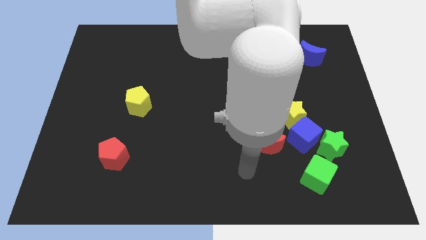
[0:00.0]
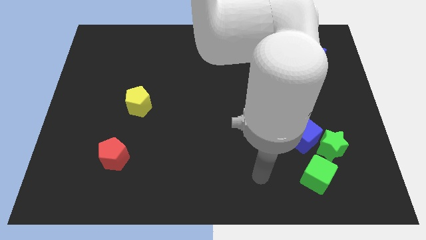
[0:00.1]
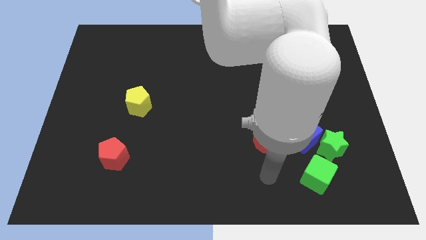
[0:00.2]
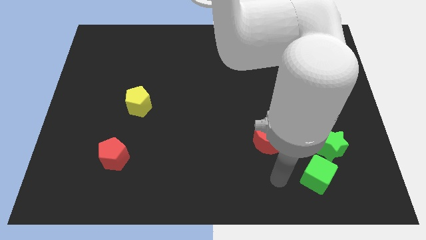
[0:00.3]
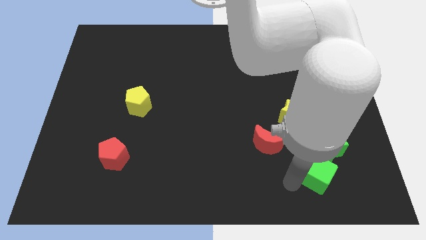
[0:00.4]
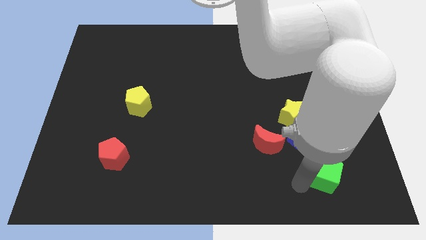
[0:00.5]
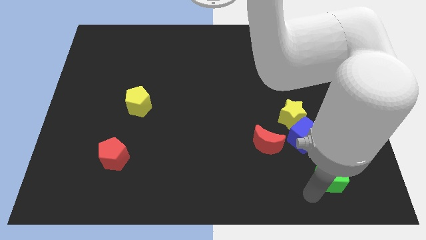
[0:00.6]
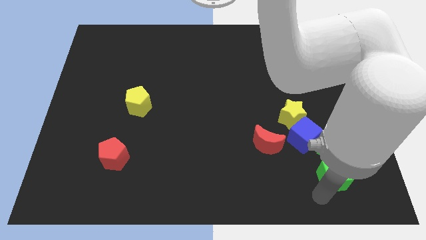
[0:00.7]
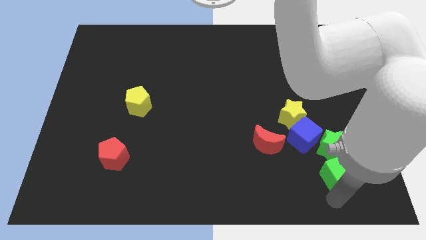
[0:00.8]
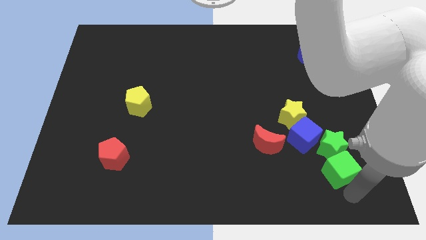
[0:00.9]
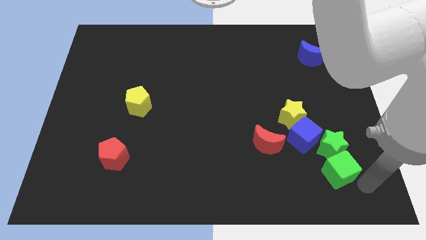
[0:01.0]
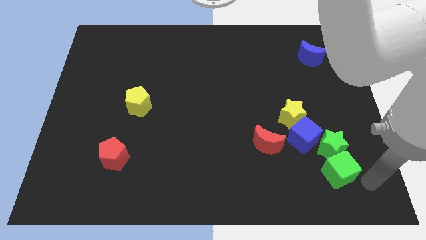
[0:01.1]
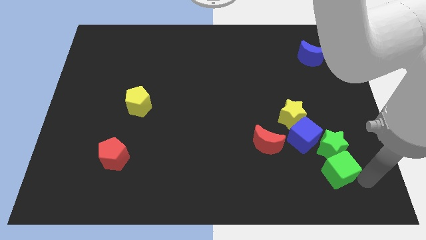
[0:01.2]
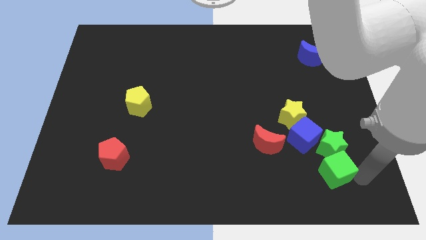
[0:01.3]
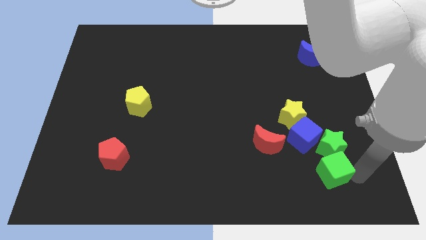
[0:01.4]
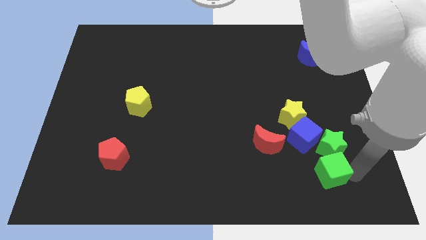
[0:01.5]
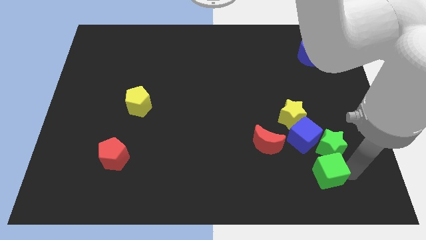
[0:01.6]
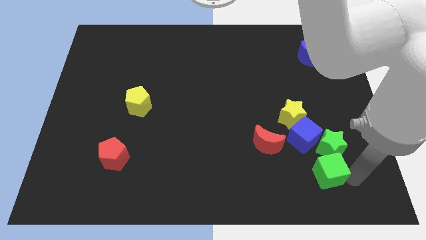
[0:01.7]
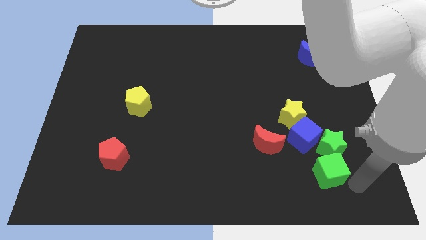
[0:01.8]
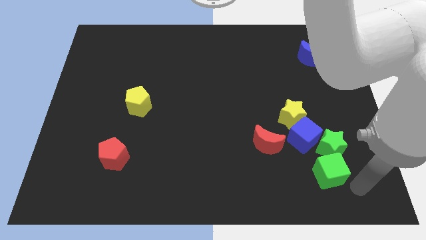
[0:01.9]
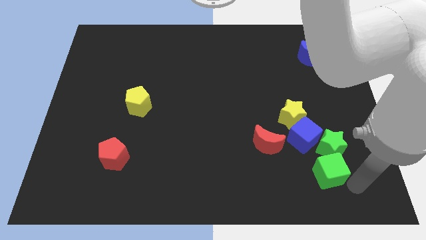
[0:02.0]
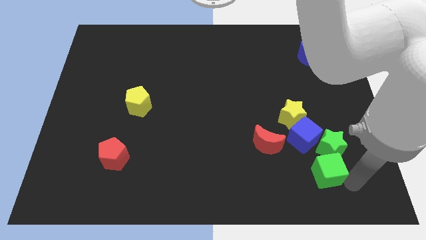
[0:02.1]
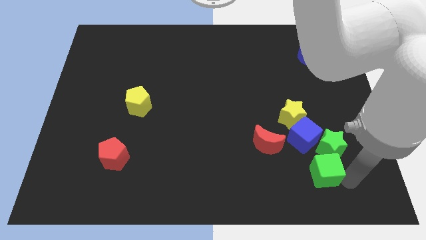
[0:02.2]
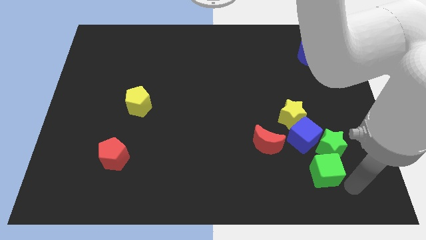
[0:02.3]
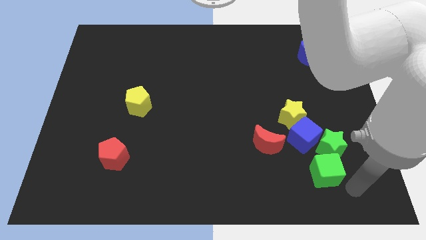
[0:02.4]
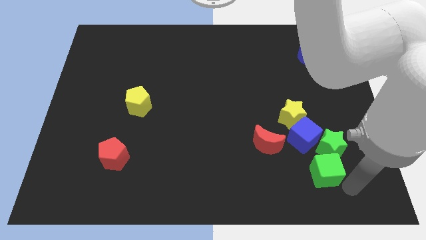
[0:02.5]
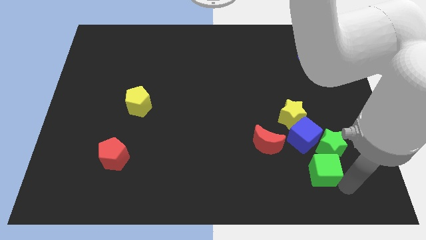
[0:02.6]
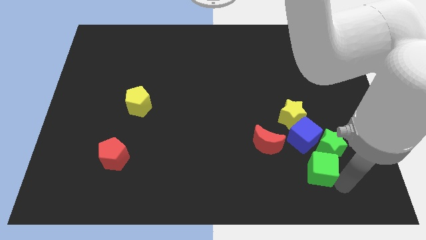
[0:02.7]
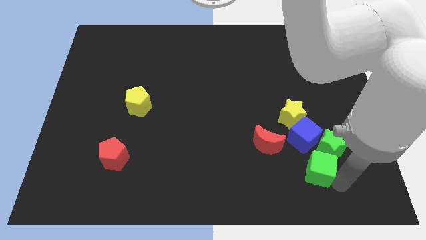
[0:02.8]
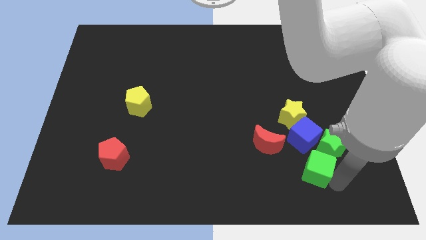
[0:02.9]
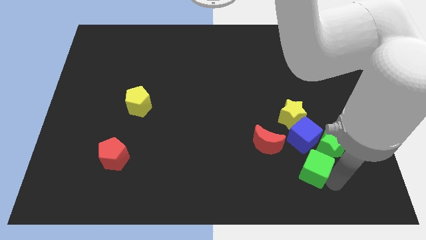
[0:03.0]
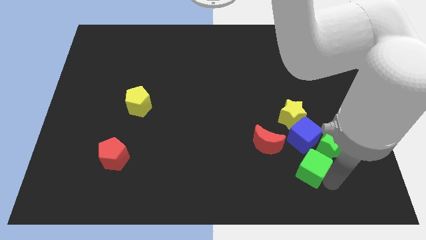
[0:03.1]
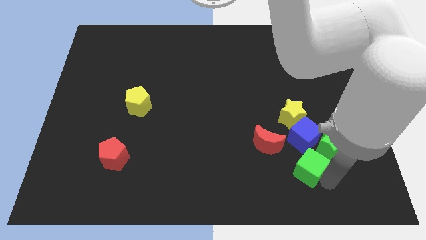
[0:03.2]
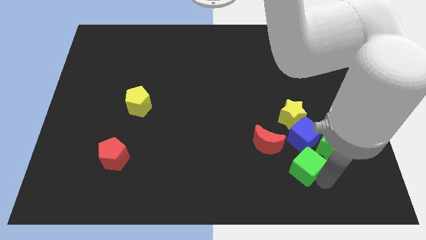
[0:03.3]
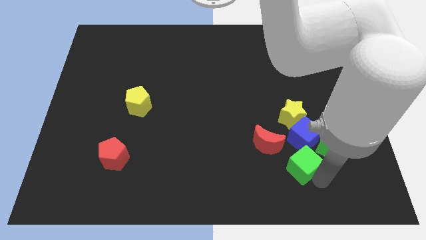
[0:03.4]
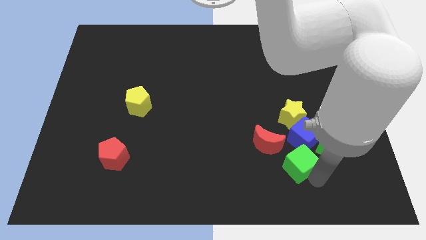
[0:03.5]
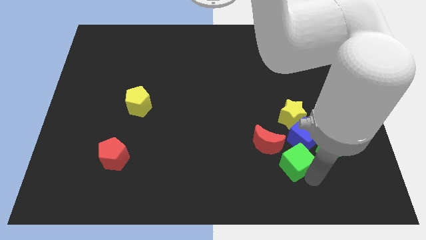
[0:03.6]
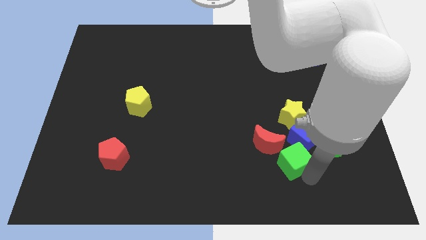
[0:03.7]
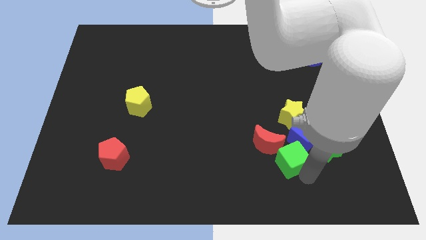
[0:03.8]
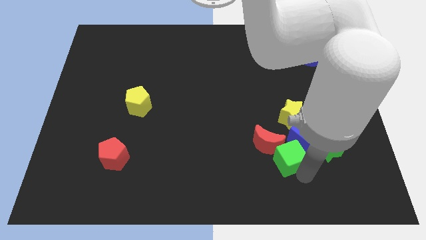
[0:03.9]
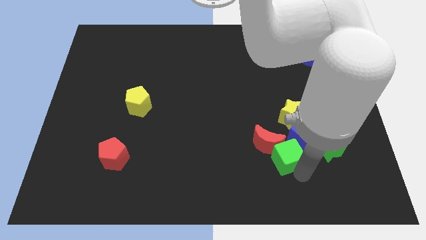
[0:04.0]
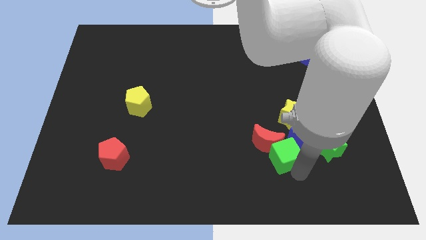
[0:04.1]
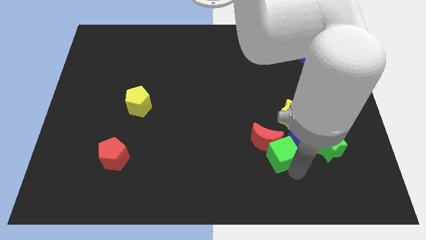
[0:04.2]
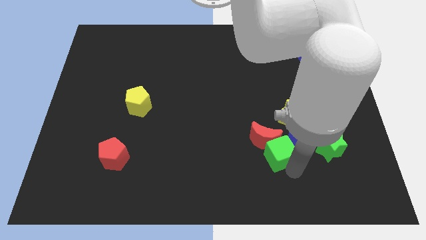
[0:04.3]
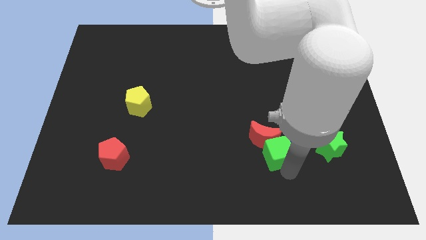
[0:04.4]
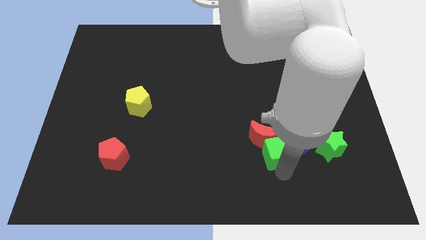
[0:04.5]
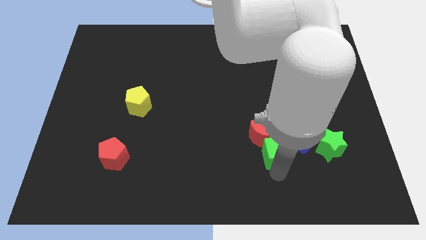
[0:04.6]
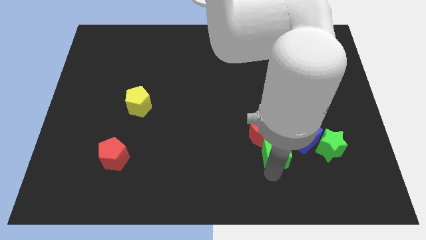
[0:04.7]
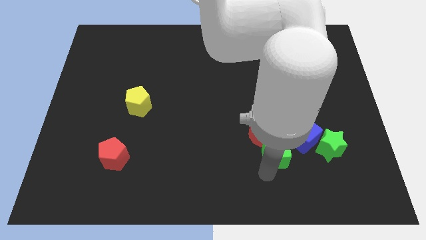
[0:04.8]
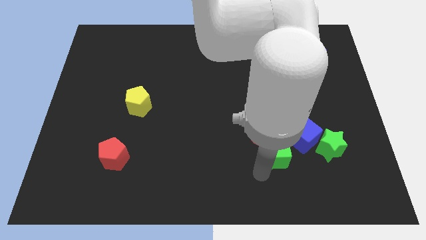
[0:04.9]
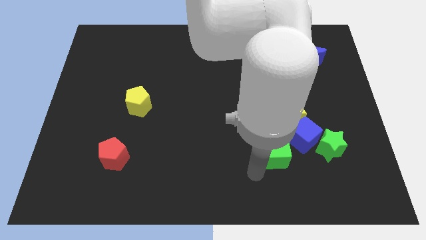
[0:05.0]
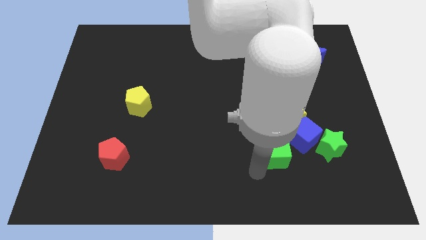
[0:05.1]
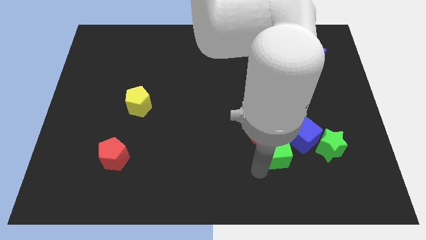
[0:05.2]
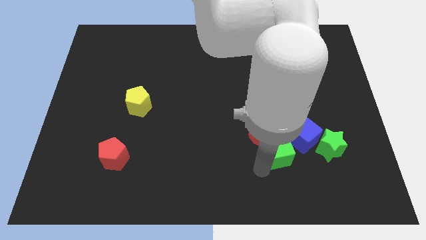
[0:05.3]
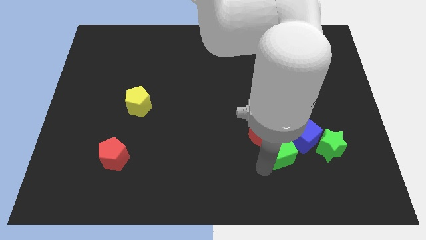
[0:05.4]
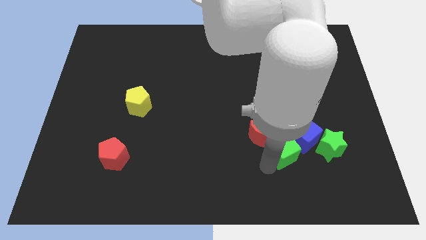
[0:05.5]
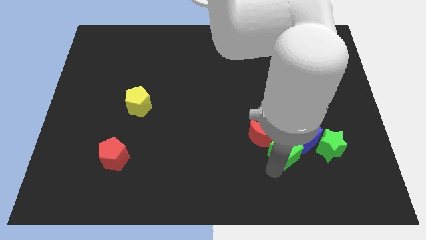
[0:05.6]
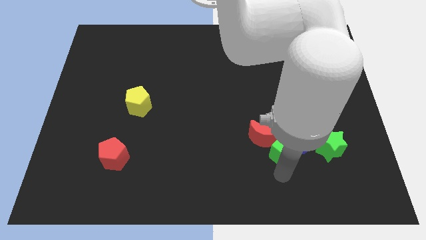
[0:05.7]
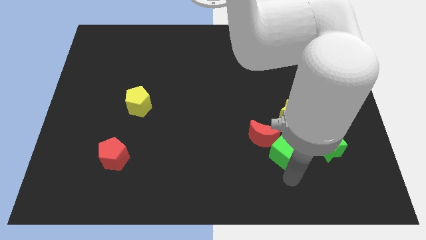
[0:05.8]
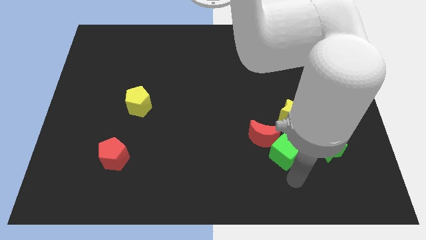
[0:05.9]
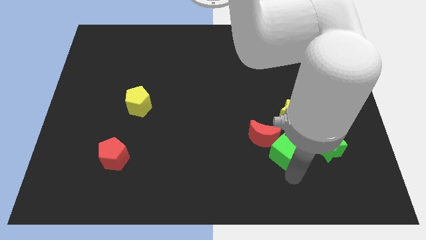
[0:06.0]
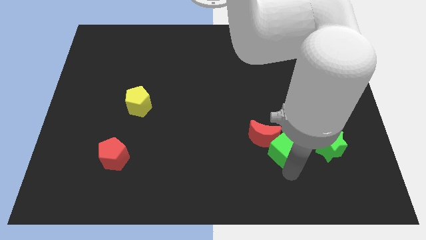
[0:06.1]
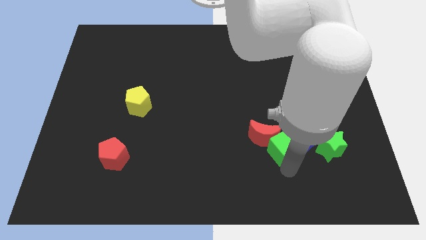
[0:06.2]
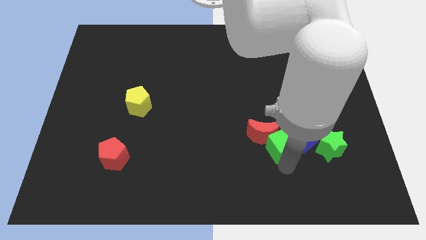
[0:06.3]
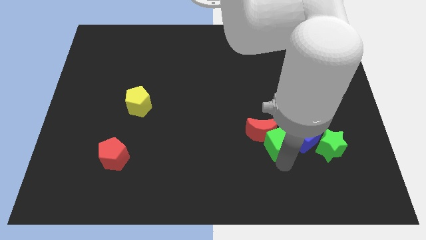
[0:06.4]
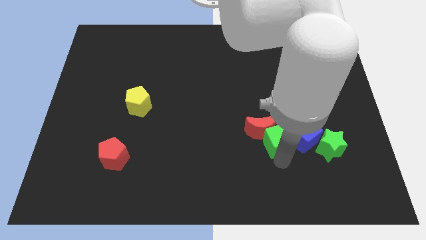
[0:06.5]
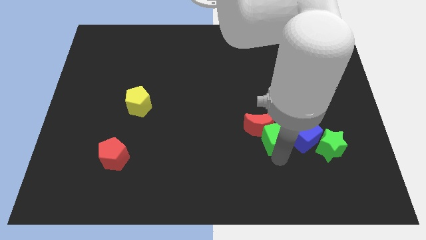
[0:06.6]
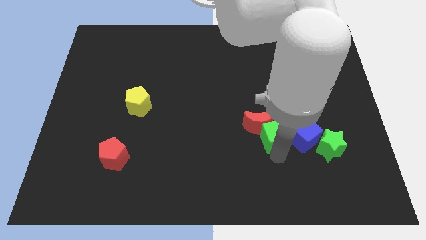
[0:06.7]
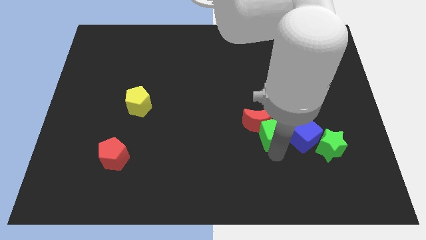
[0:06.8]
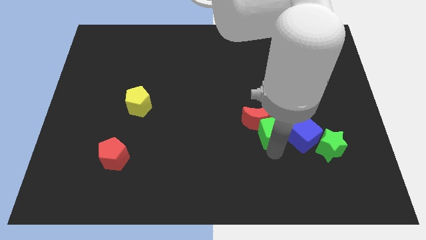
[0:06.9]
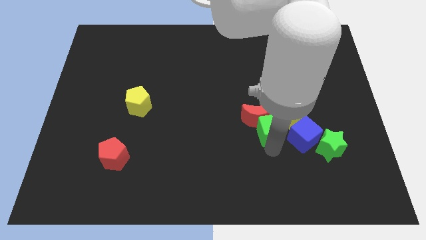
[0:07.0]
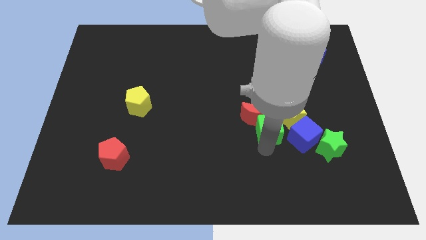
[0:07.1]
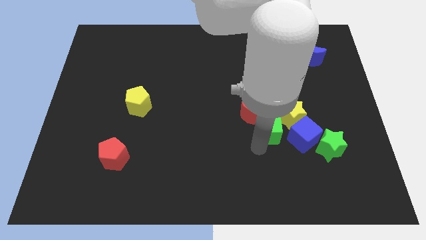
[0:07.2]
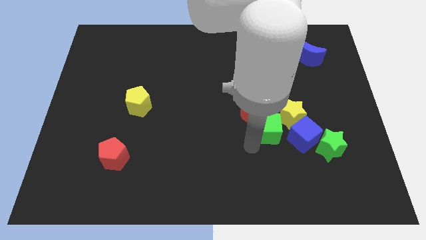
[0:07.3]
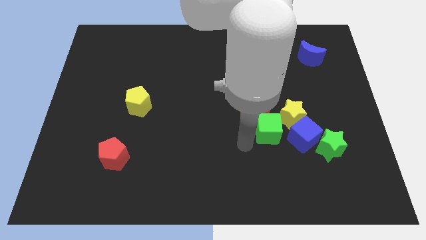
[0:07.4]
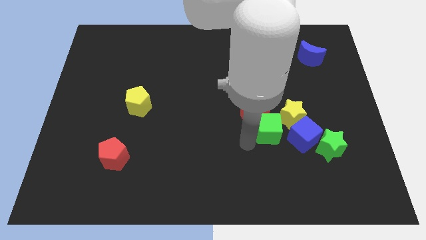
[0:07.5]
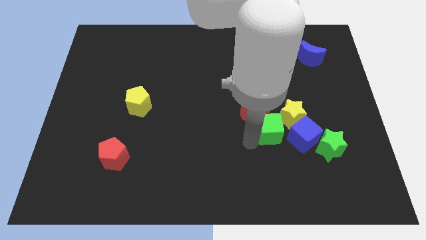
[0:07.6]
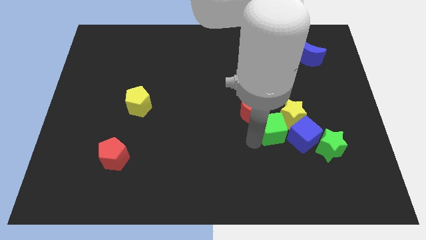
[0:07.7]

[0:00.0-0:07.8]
slide the green cube close to the yellow star
